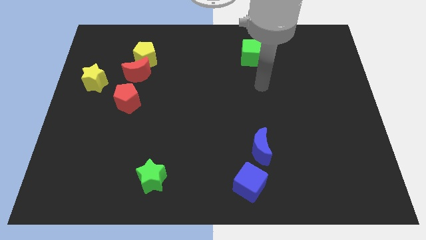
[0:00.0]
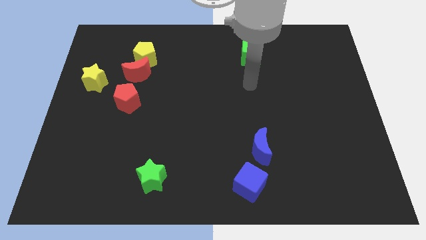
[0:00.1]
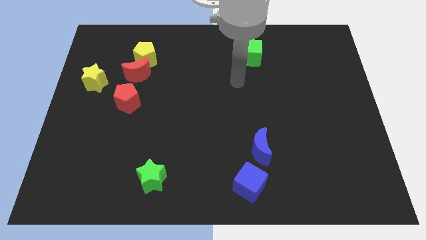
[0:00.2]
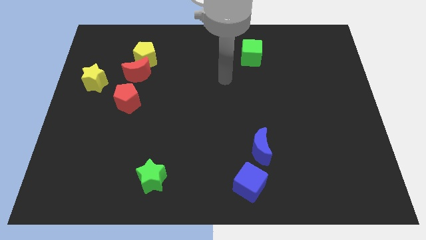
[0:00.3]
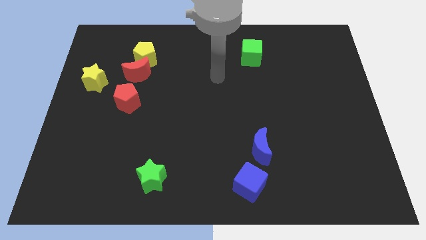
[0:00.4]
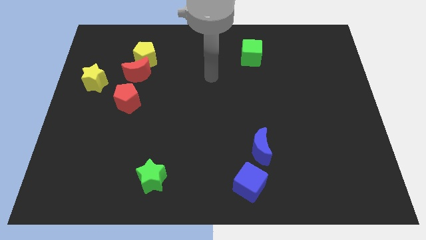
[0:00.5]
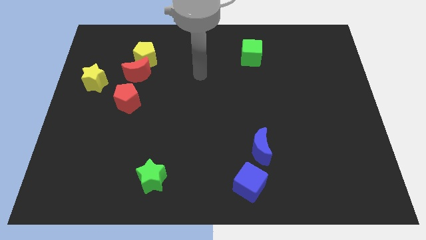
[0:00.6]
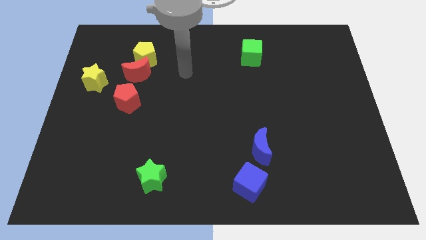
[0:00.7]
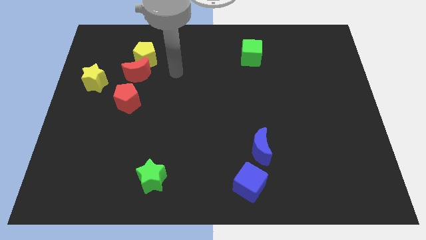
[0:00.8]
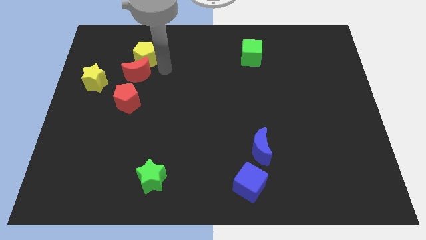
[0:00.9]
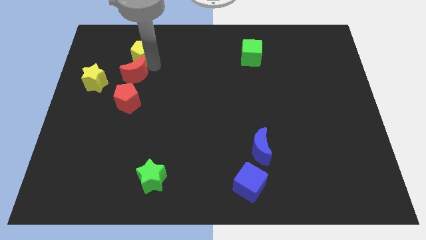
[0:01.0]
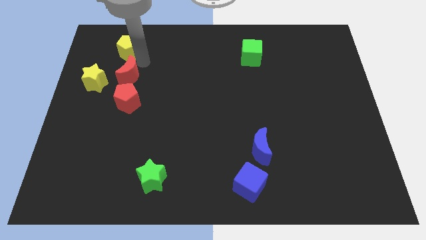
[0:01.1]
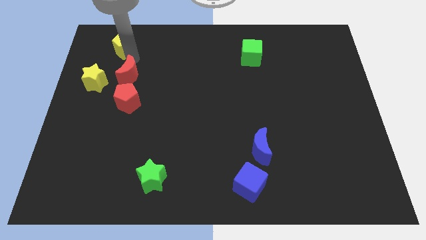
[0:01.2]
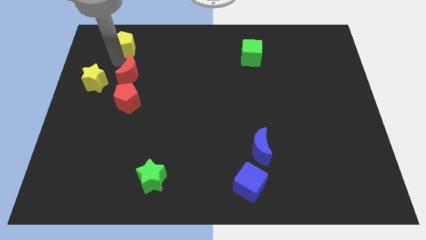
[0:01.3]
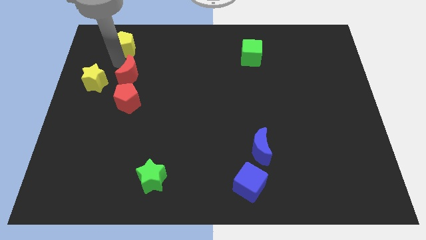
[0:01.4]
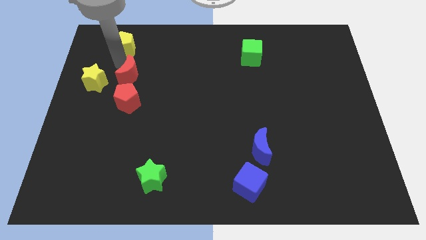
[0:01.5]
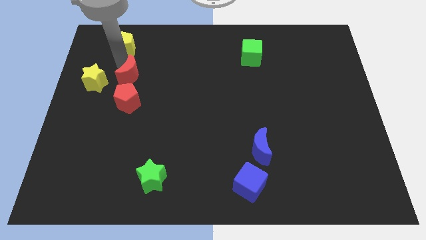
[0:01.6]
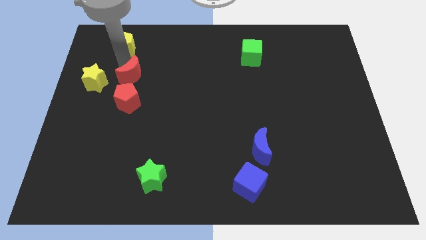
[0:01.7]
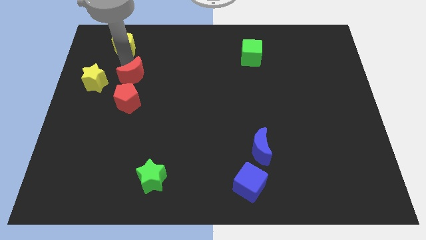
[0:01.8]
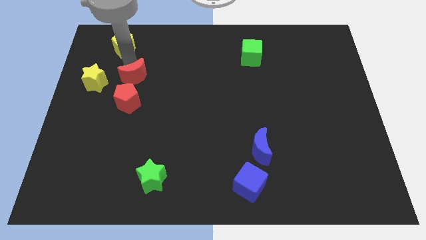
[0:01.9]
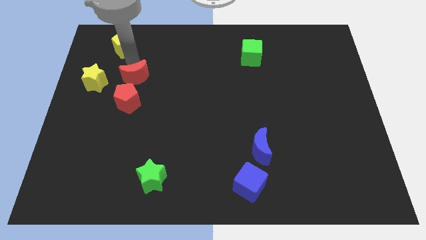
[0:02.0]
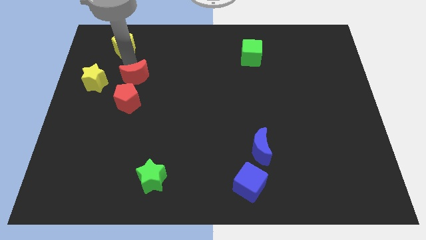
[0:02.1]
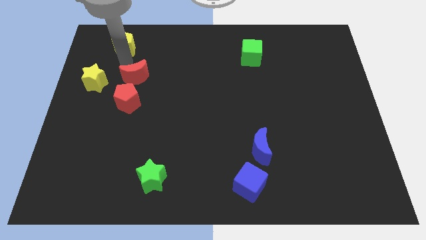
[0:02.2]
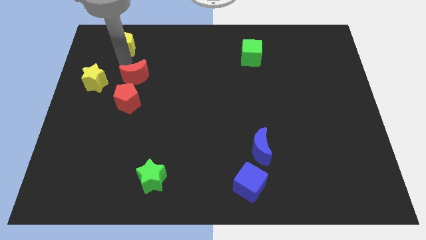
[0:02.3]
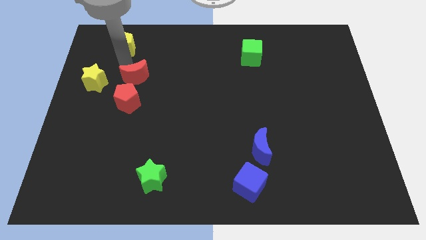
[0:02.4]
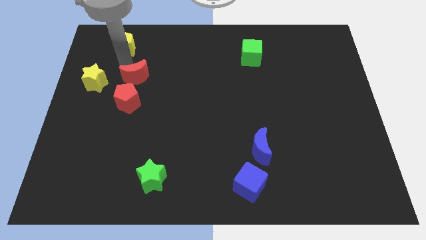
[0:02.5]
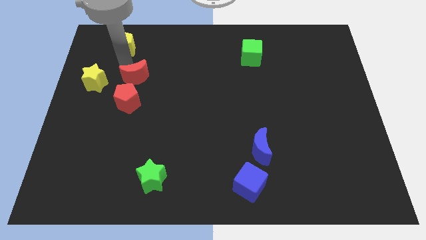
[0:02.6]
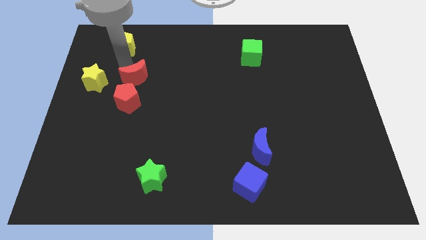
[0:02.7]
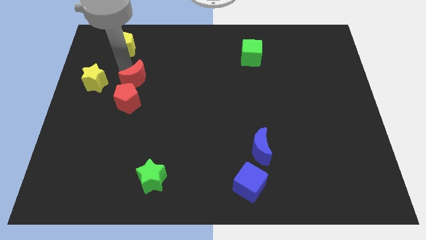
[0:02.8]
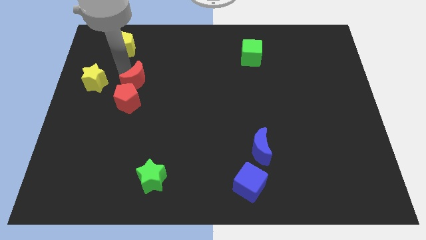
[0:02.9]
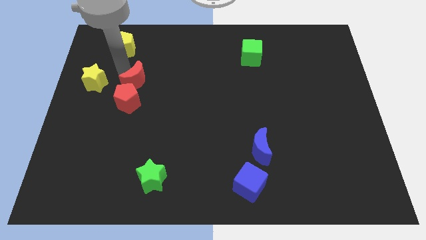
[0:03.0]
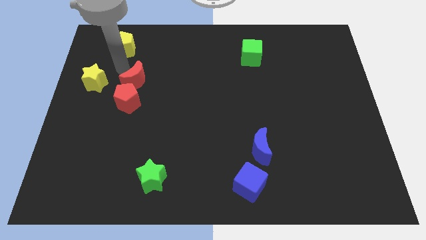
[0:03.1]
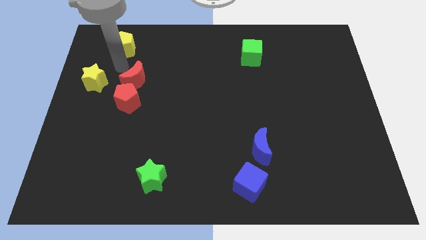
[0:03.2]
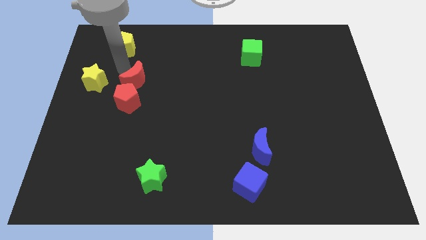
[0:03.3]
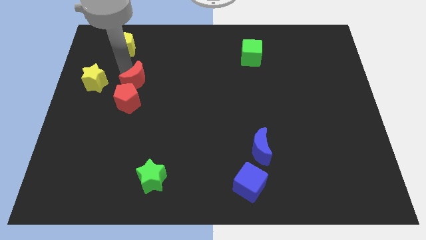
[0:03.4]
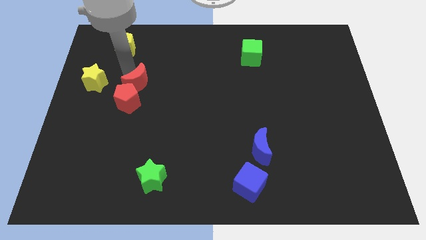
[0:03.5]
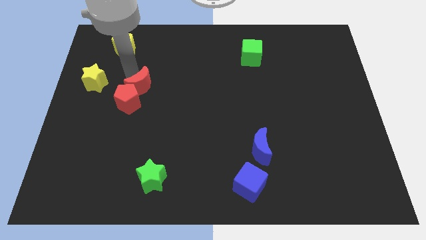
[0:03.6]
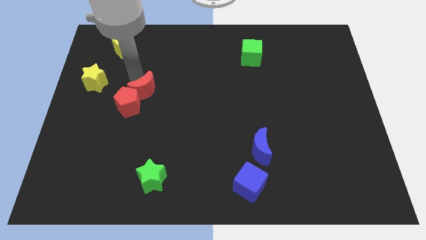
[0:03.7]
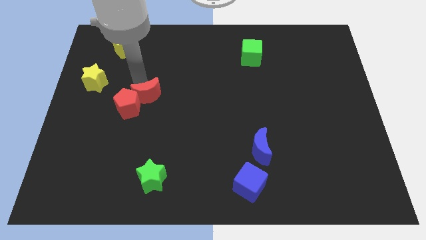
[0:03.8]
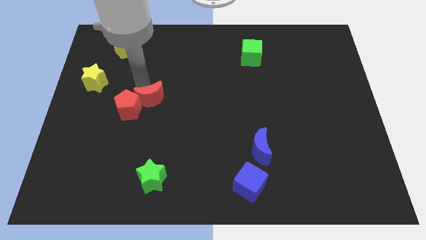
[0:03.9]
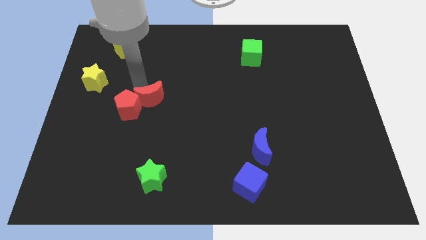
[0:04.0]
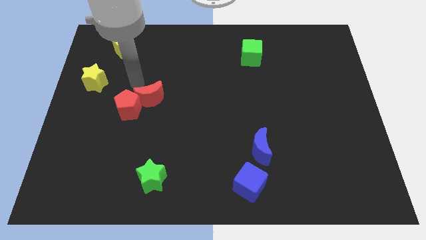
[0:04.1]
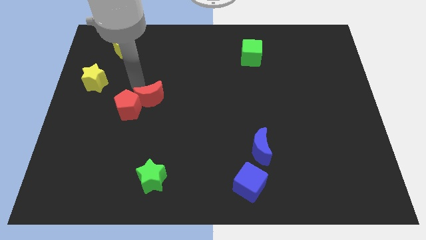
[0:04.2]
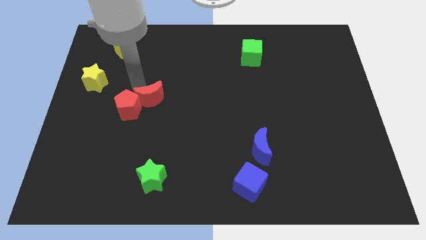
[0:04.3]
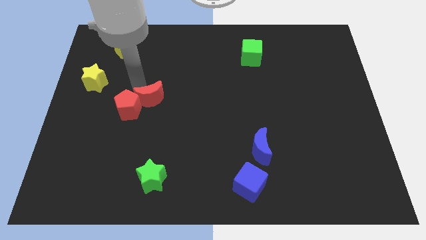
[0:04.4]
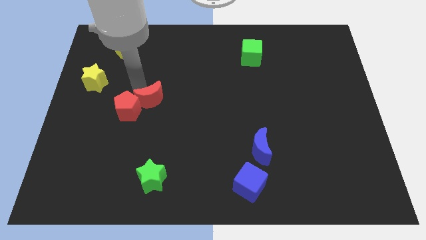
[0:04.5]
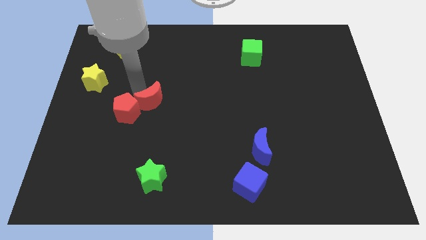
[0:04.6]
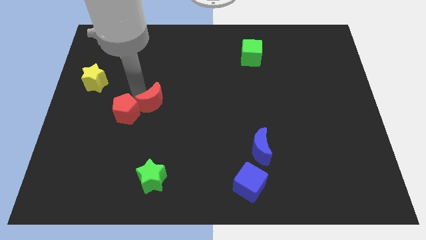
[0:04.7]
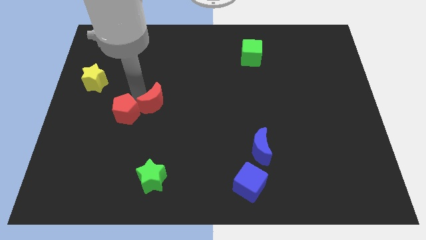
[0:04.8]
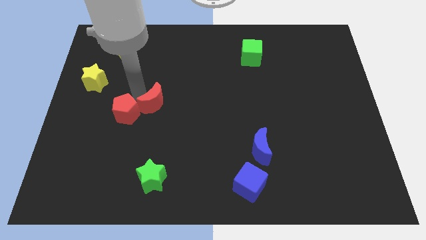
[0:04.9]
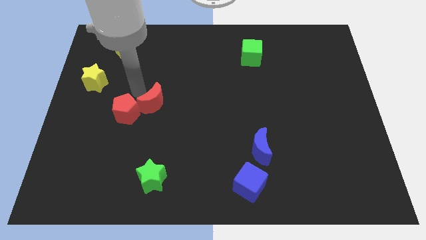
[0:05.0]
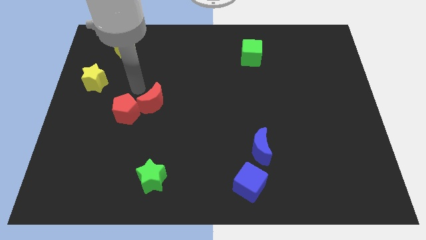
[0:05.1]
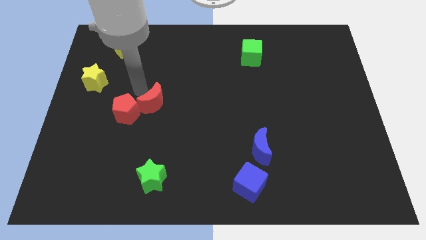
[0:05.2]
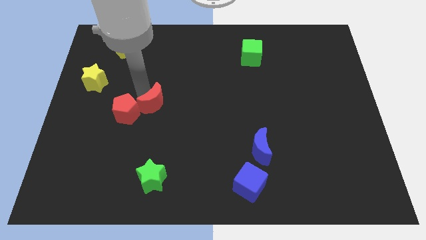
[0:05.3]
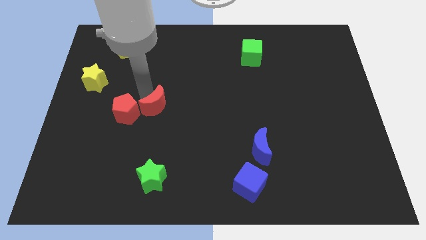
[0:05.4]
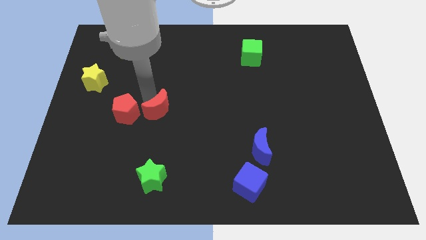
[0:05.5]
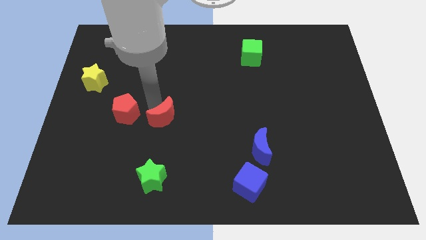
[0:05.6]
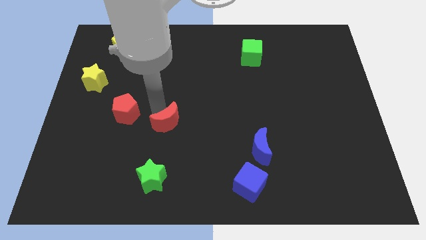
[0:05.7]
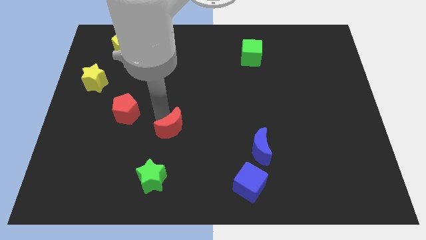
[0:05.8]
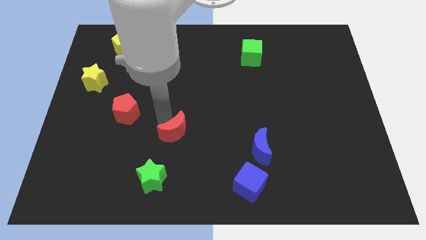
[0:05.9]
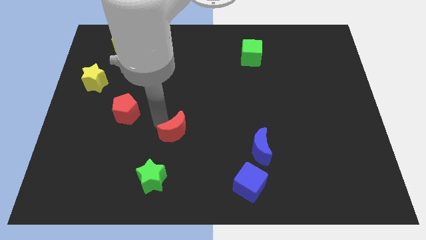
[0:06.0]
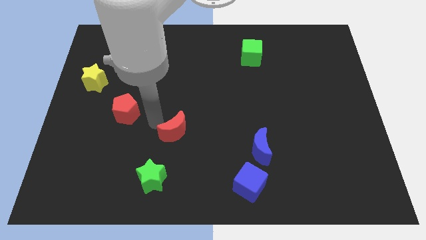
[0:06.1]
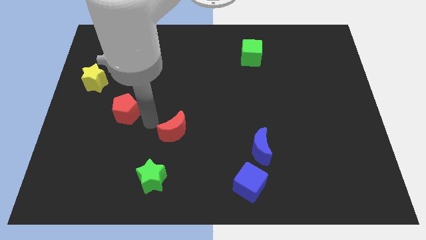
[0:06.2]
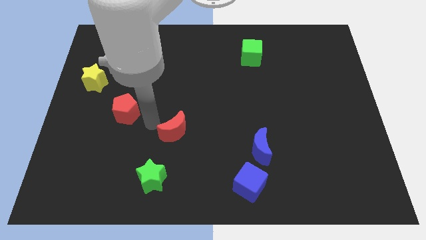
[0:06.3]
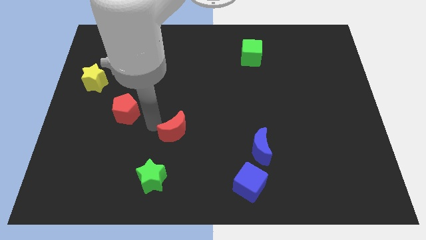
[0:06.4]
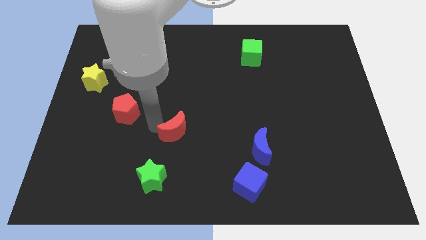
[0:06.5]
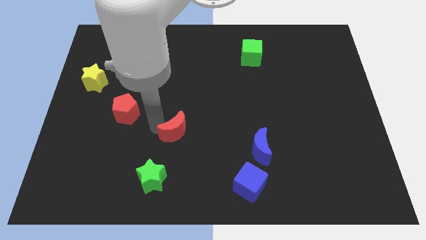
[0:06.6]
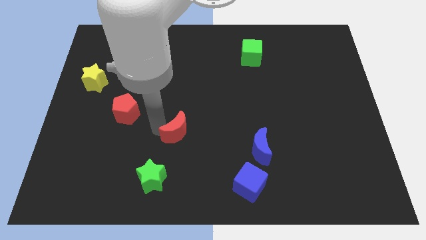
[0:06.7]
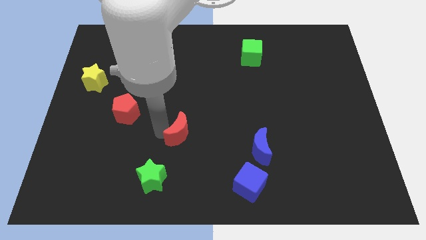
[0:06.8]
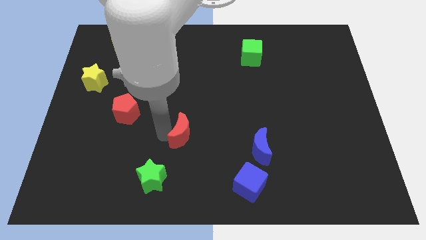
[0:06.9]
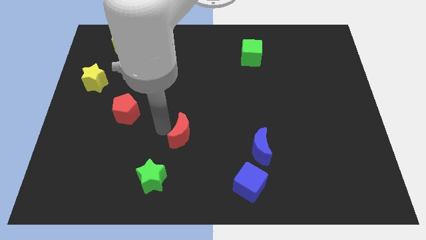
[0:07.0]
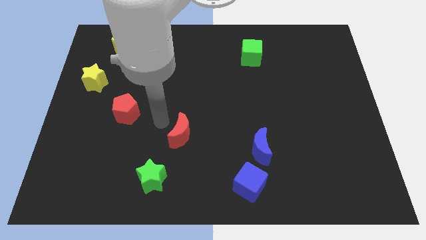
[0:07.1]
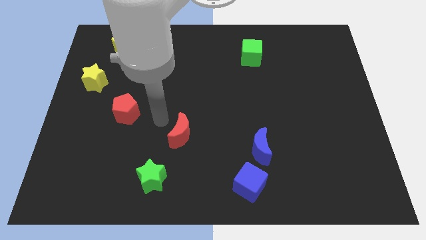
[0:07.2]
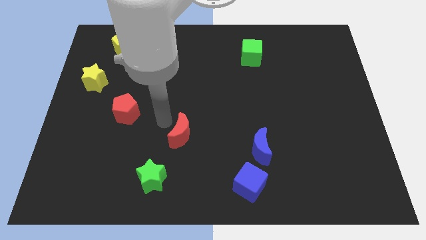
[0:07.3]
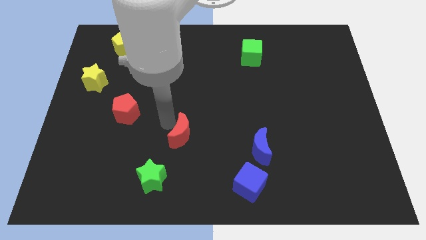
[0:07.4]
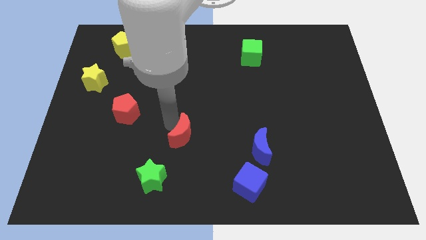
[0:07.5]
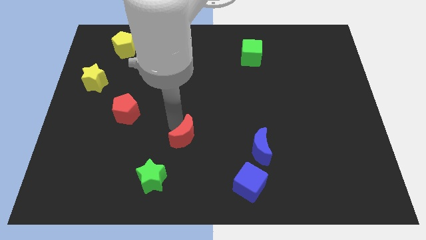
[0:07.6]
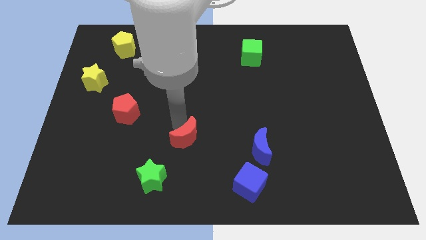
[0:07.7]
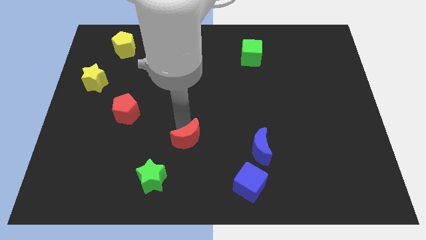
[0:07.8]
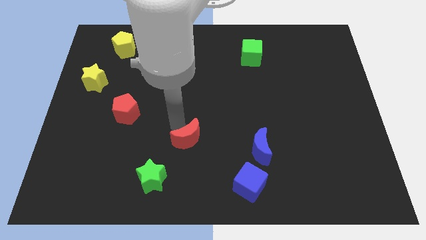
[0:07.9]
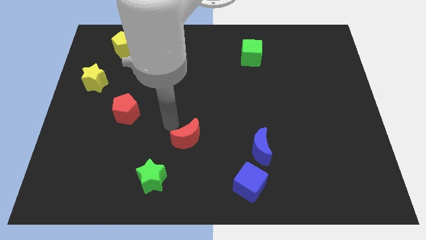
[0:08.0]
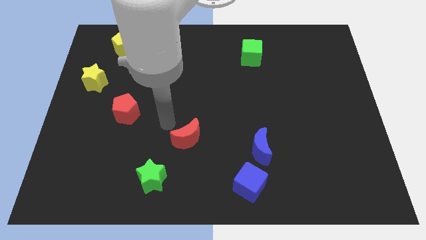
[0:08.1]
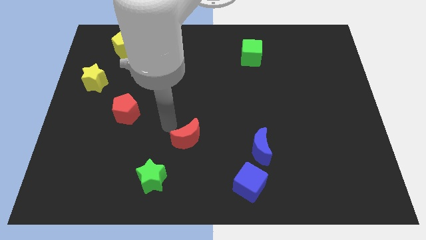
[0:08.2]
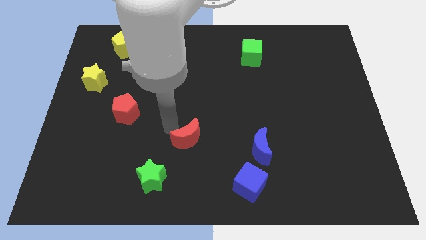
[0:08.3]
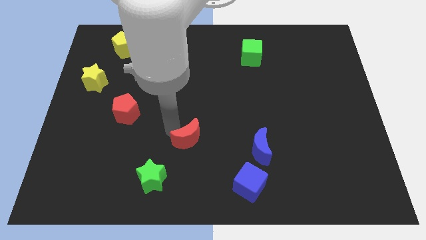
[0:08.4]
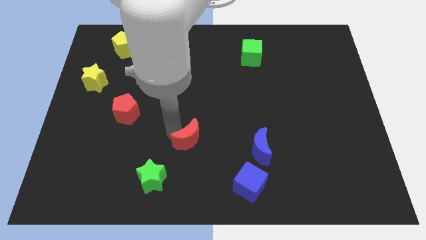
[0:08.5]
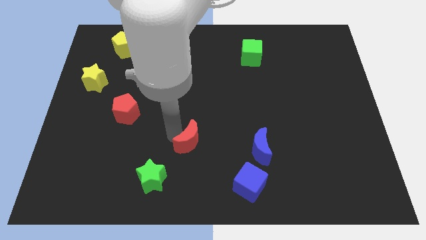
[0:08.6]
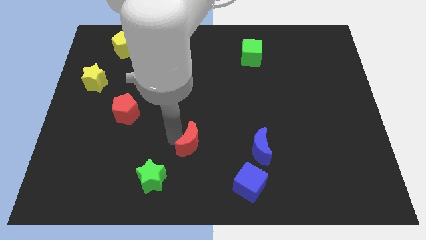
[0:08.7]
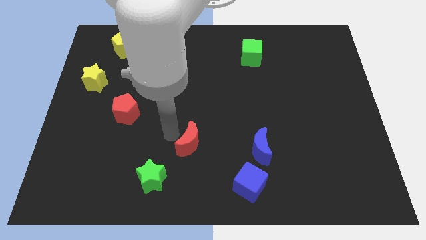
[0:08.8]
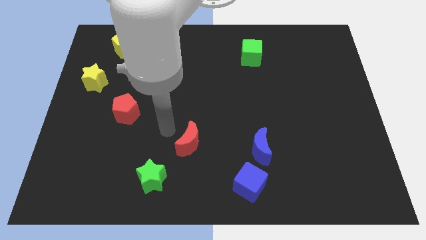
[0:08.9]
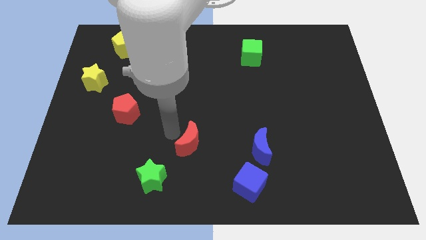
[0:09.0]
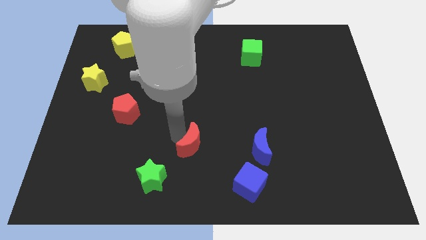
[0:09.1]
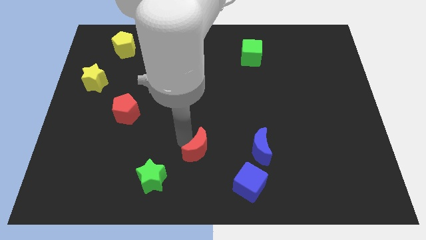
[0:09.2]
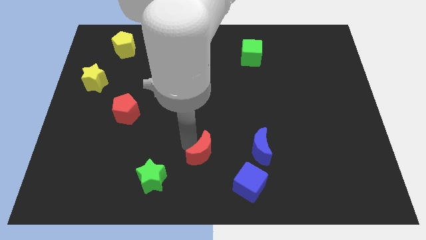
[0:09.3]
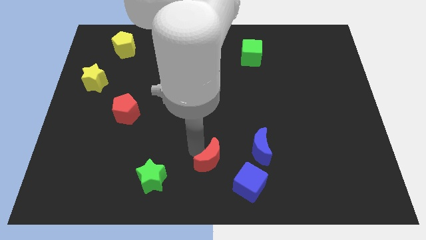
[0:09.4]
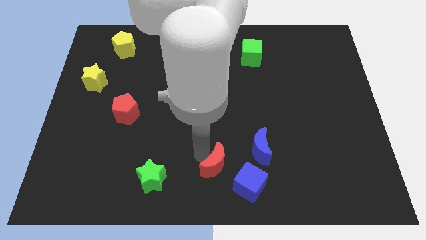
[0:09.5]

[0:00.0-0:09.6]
put the red moon to the bottom left of the blue moon
